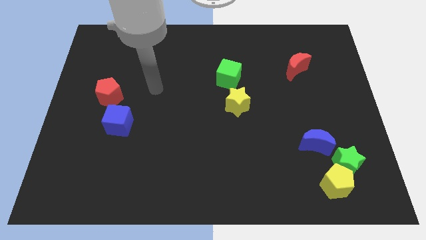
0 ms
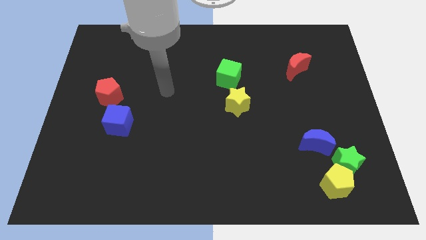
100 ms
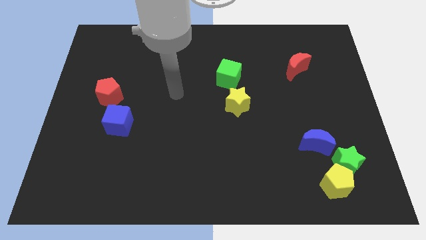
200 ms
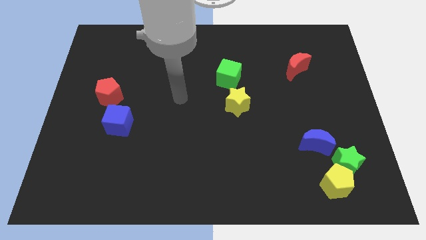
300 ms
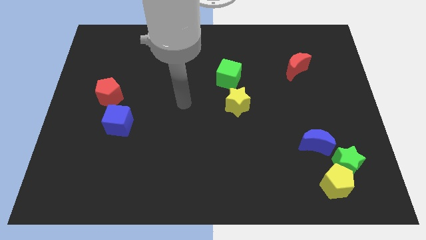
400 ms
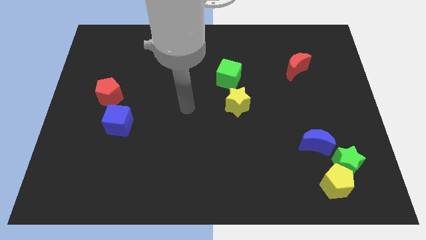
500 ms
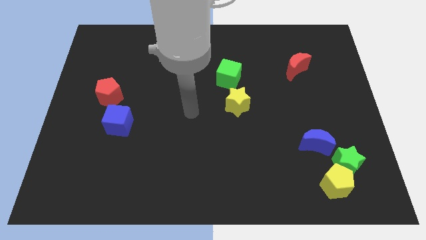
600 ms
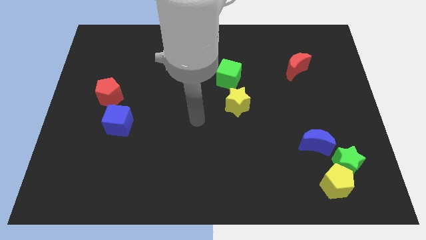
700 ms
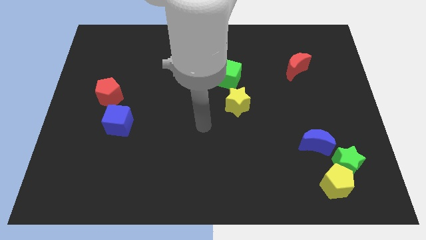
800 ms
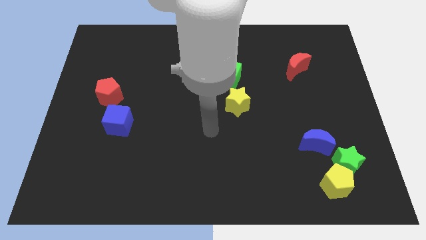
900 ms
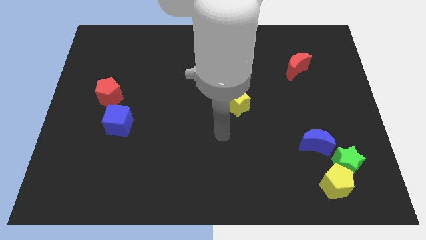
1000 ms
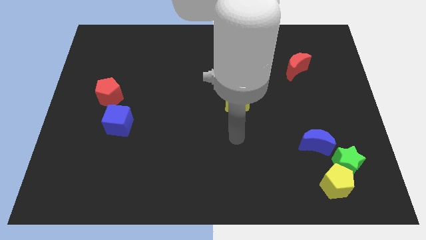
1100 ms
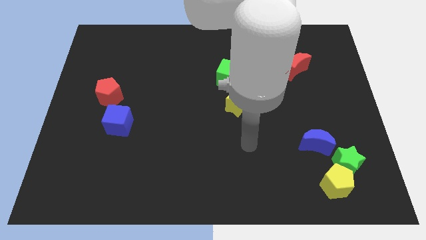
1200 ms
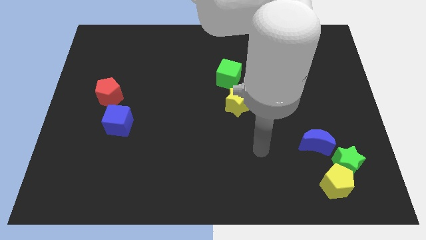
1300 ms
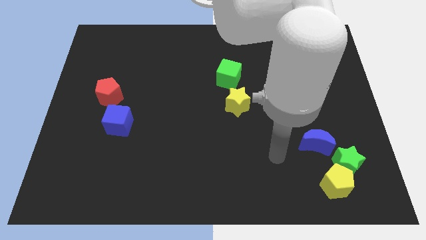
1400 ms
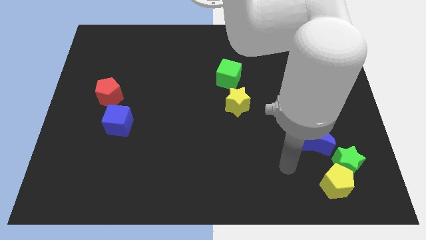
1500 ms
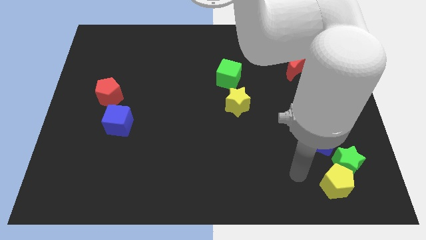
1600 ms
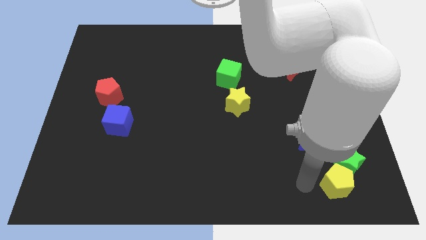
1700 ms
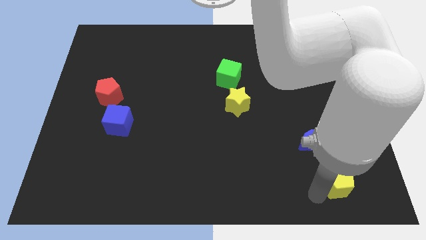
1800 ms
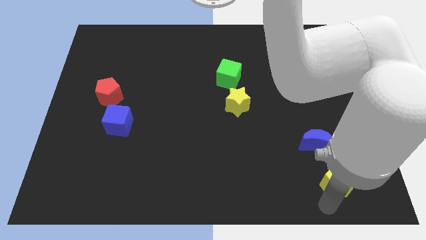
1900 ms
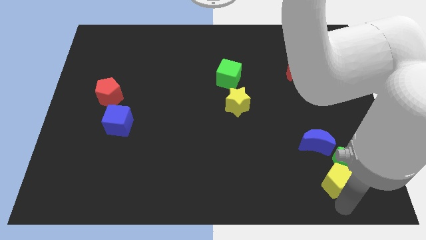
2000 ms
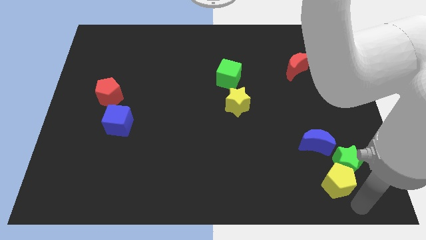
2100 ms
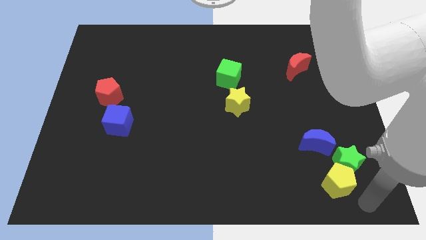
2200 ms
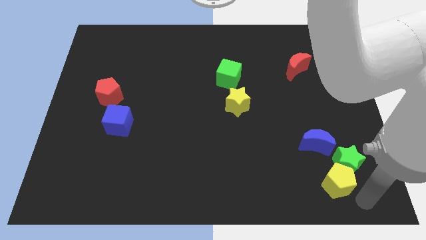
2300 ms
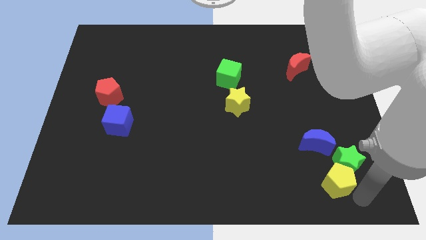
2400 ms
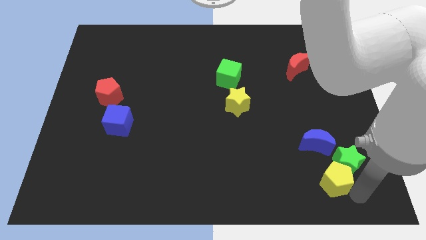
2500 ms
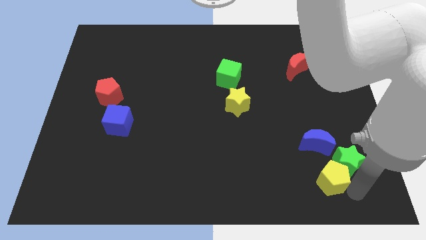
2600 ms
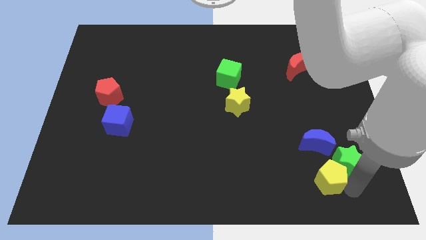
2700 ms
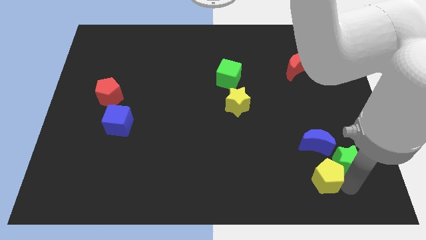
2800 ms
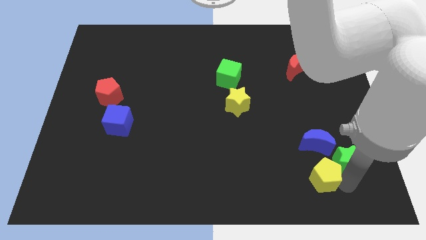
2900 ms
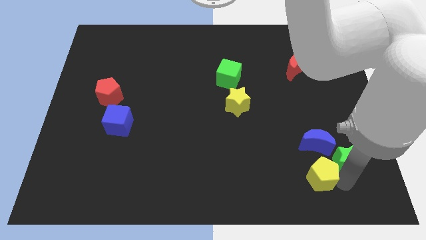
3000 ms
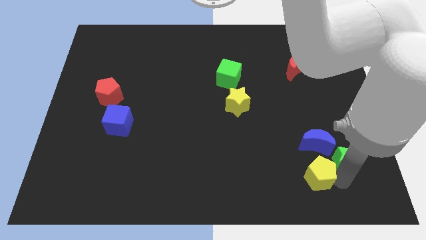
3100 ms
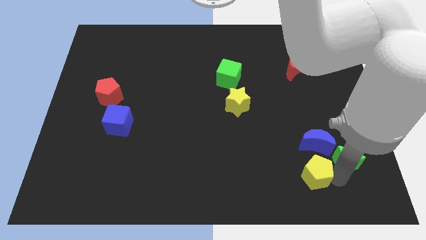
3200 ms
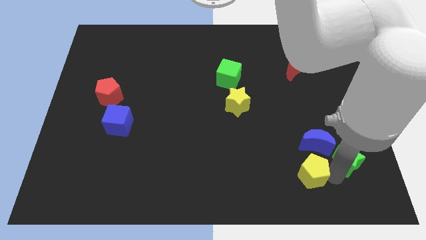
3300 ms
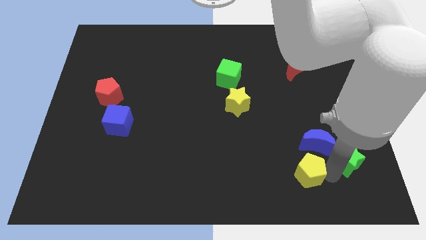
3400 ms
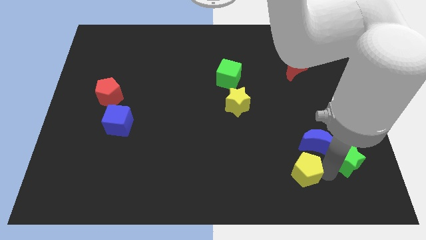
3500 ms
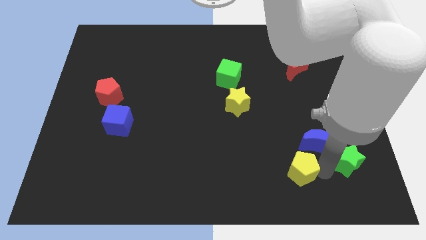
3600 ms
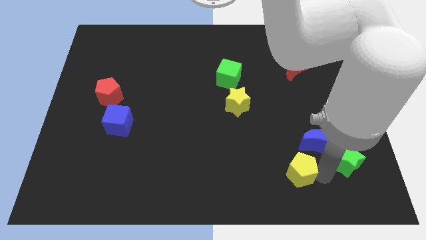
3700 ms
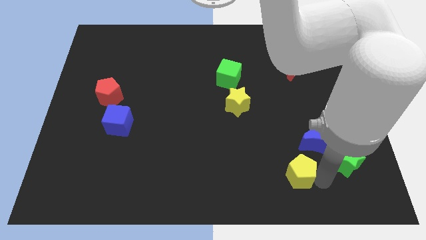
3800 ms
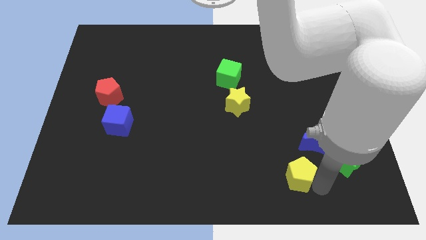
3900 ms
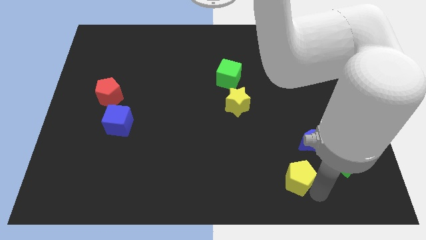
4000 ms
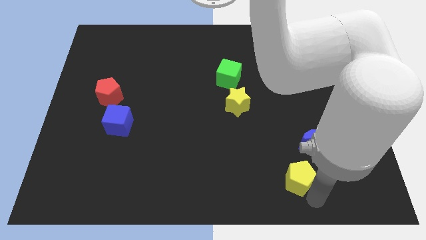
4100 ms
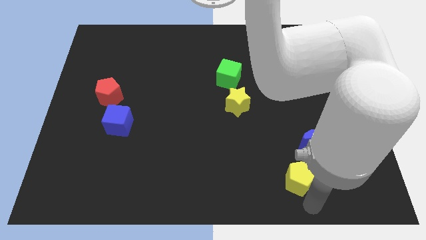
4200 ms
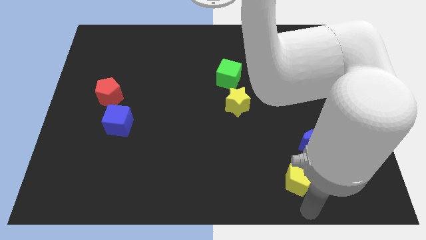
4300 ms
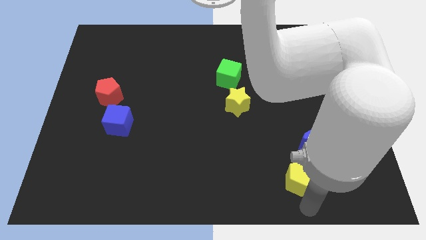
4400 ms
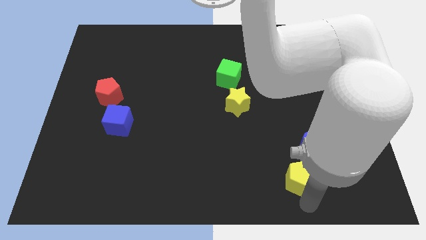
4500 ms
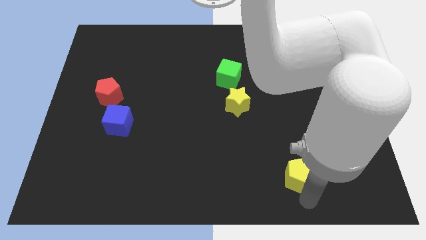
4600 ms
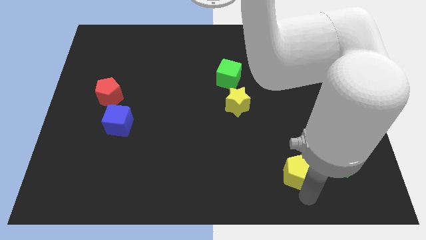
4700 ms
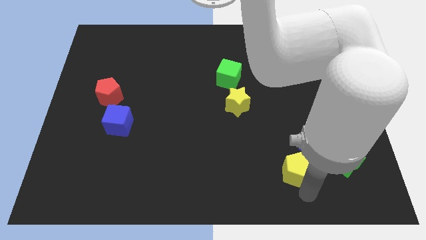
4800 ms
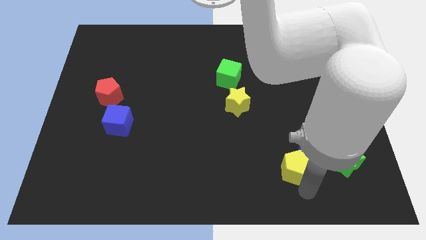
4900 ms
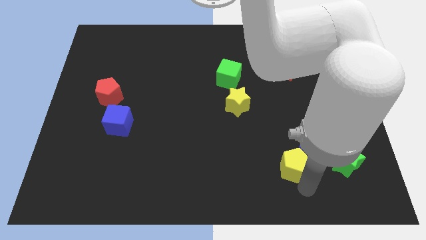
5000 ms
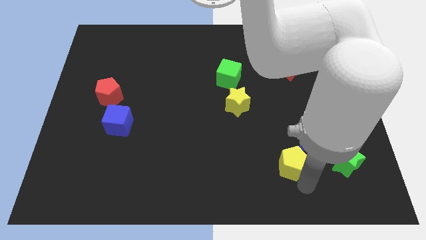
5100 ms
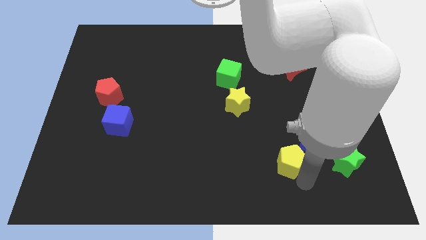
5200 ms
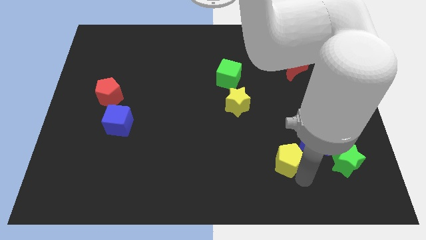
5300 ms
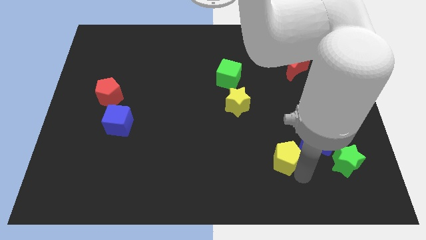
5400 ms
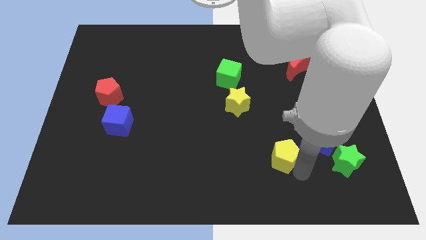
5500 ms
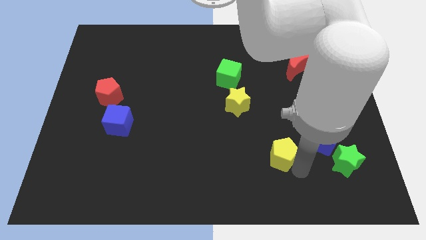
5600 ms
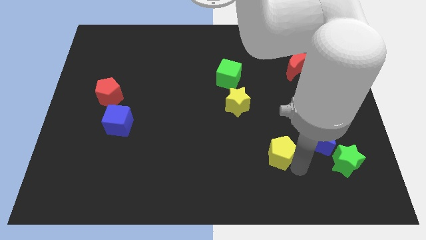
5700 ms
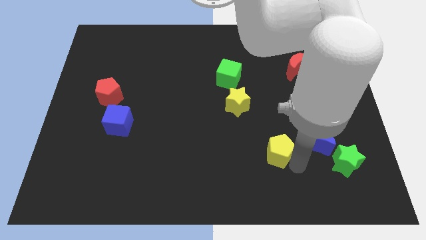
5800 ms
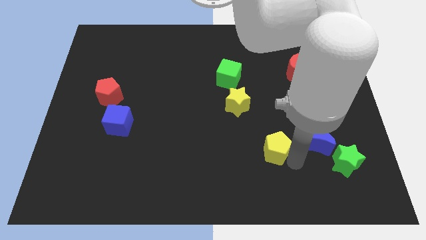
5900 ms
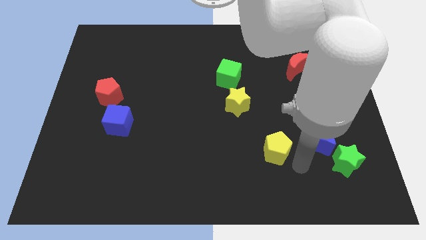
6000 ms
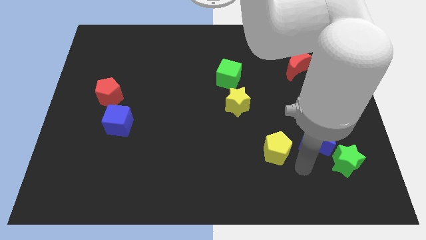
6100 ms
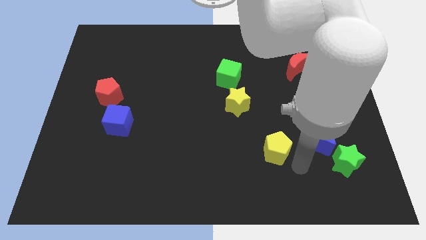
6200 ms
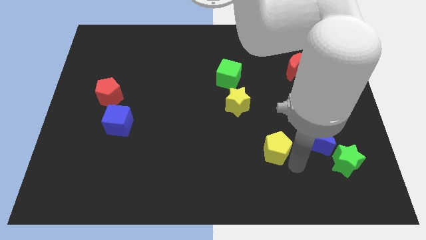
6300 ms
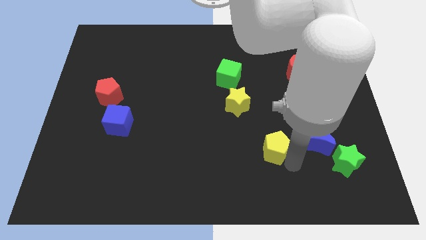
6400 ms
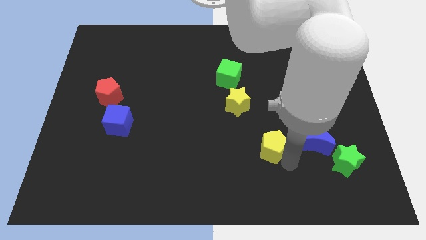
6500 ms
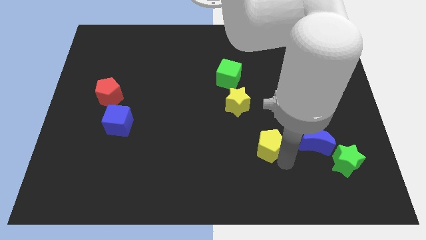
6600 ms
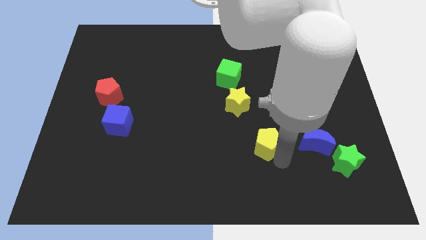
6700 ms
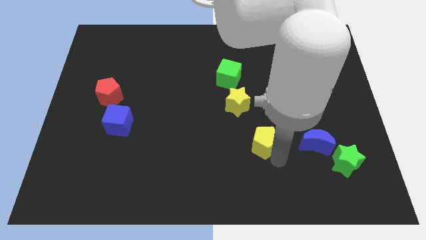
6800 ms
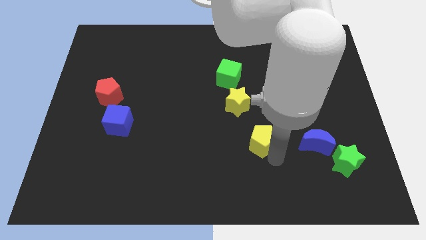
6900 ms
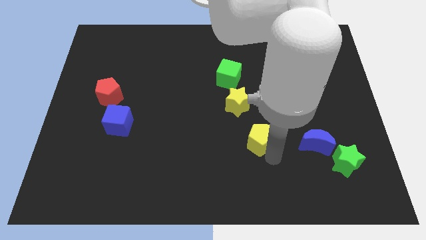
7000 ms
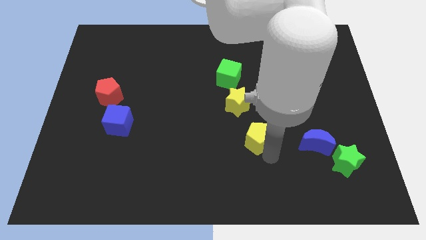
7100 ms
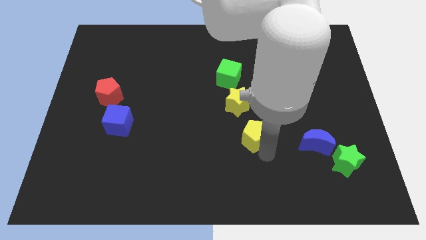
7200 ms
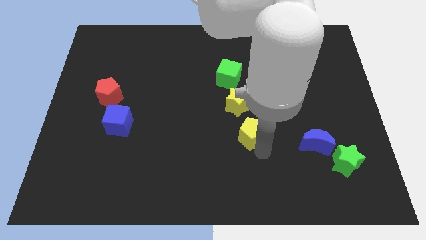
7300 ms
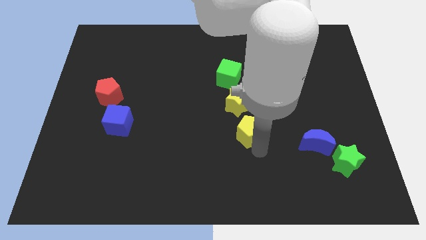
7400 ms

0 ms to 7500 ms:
put the yellow pentagon to the center
